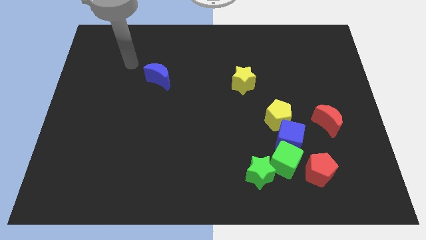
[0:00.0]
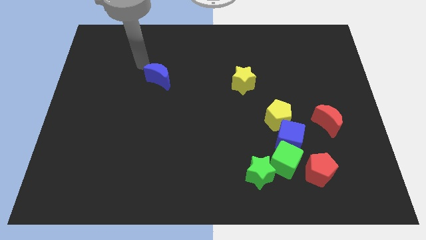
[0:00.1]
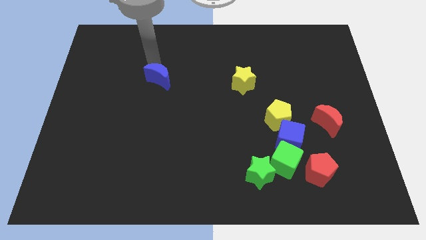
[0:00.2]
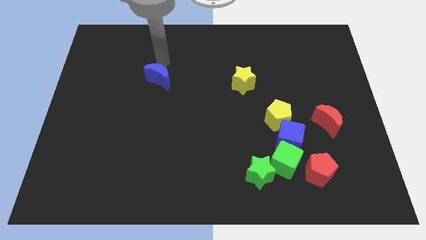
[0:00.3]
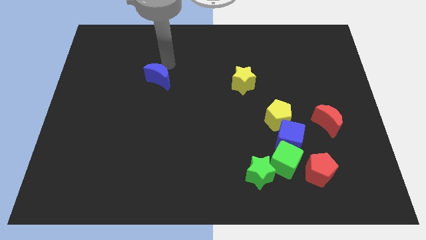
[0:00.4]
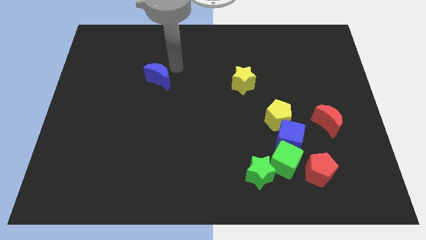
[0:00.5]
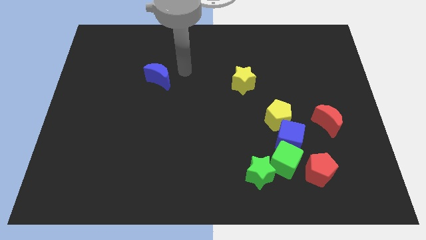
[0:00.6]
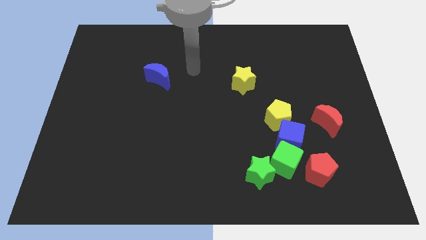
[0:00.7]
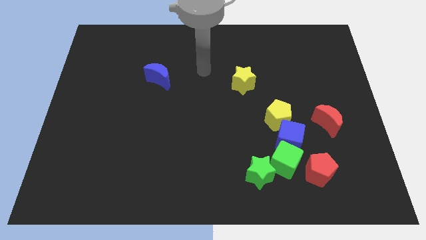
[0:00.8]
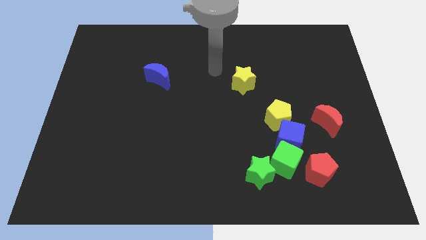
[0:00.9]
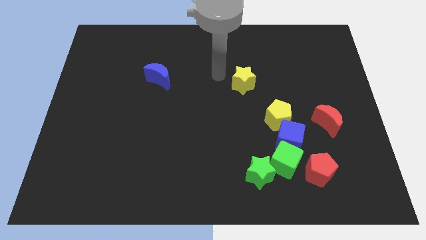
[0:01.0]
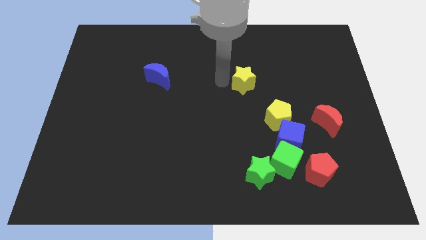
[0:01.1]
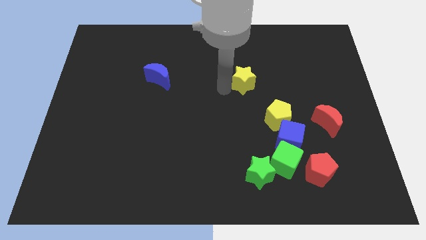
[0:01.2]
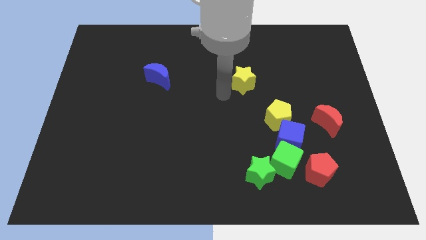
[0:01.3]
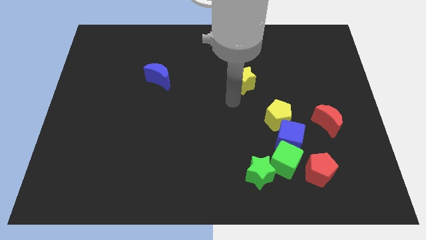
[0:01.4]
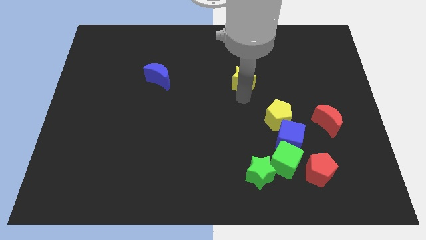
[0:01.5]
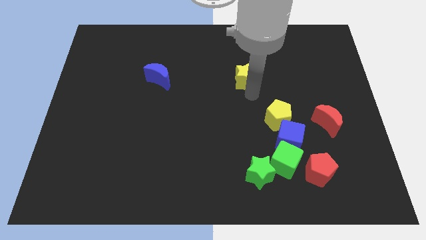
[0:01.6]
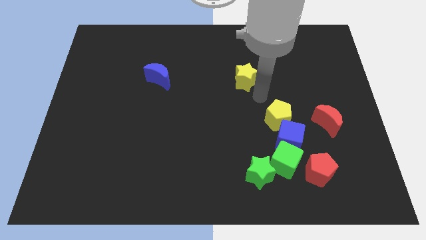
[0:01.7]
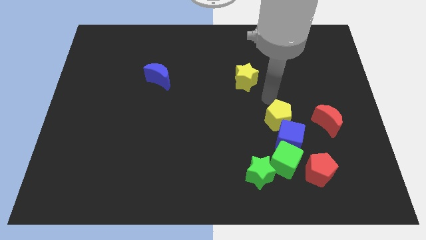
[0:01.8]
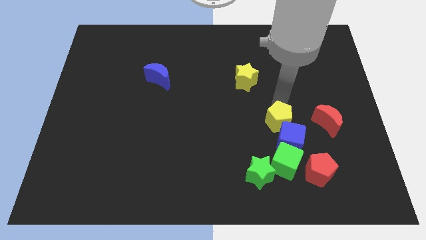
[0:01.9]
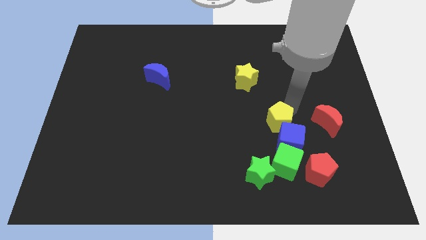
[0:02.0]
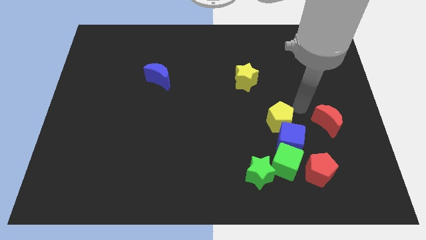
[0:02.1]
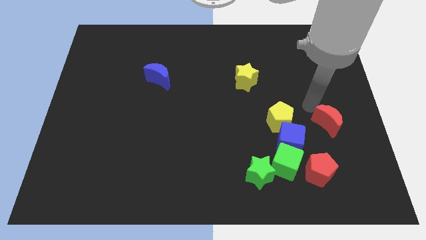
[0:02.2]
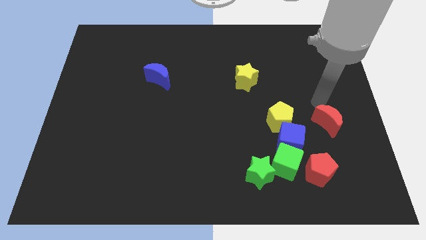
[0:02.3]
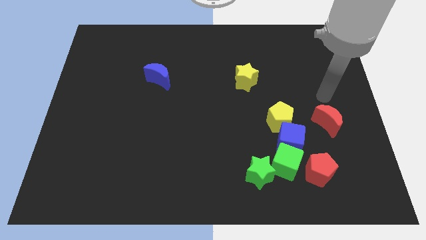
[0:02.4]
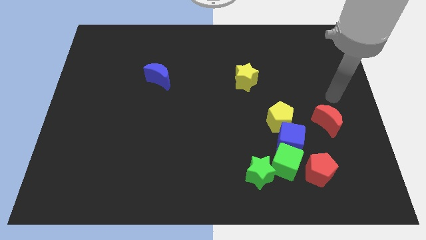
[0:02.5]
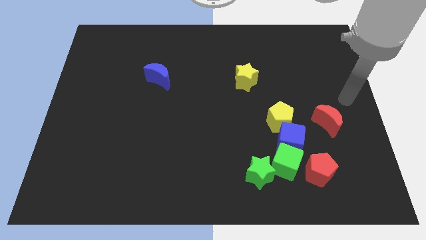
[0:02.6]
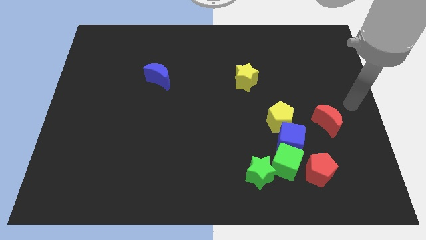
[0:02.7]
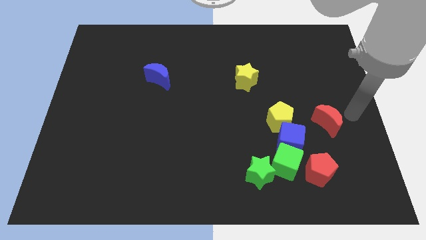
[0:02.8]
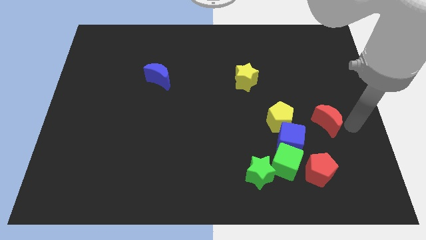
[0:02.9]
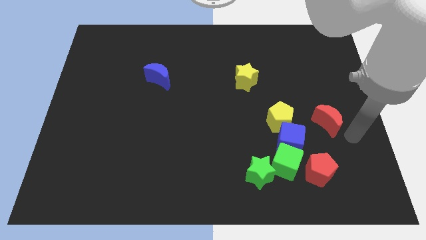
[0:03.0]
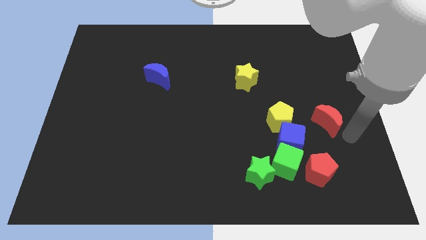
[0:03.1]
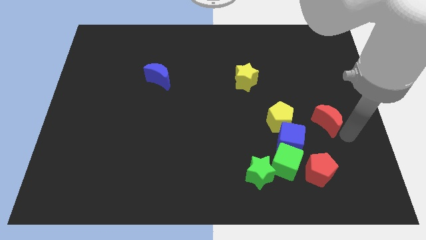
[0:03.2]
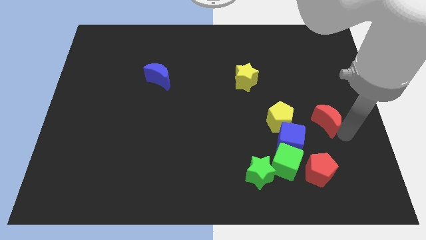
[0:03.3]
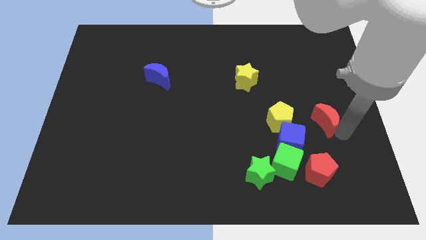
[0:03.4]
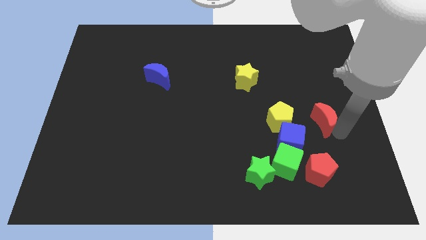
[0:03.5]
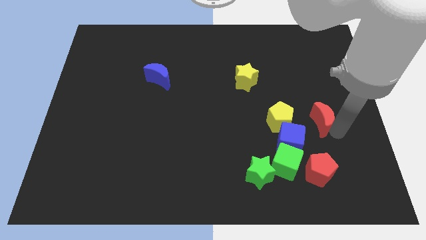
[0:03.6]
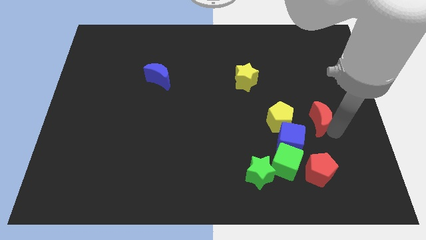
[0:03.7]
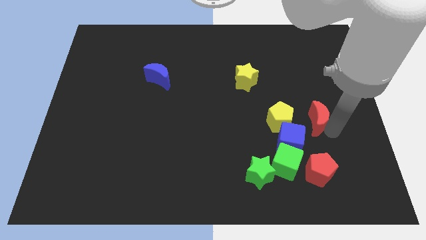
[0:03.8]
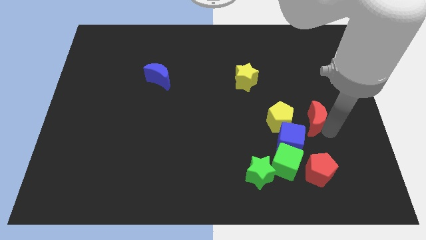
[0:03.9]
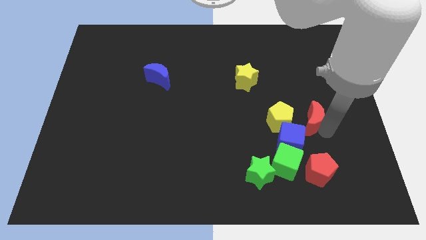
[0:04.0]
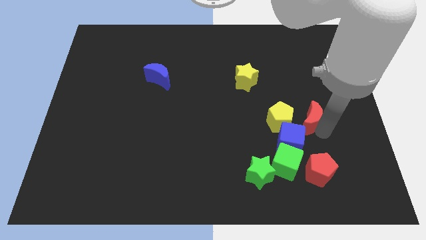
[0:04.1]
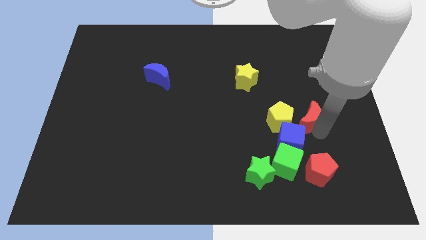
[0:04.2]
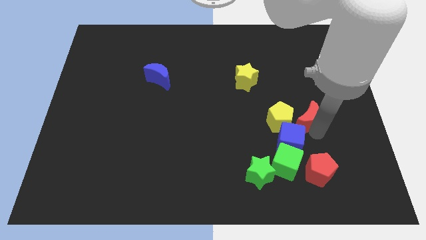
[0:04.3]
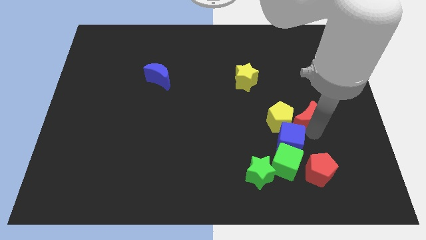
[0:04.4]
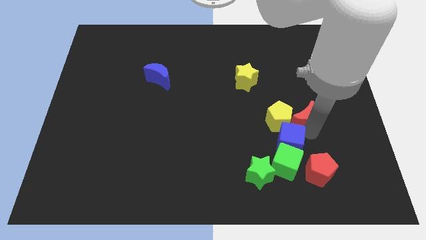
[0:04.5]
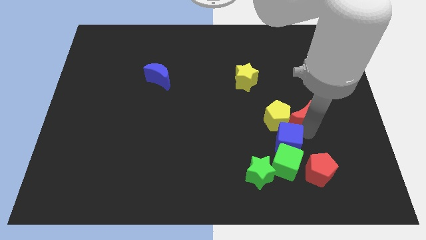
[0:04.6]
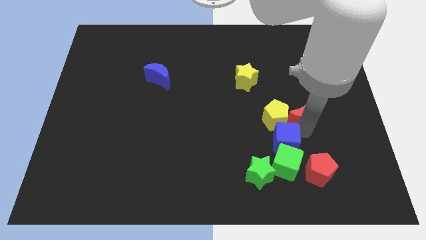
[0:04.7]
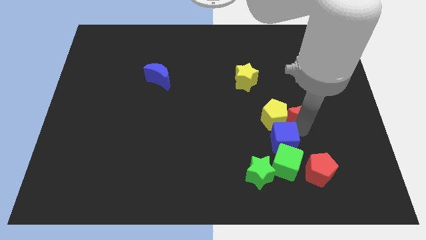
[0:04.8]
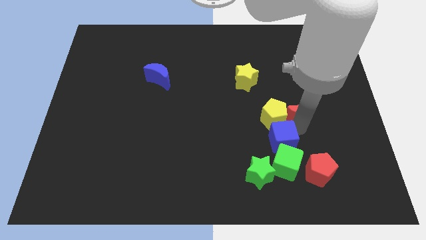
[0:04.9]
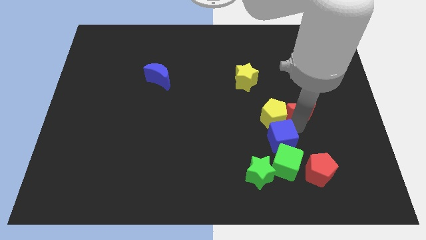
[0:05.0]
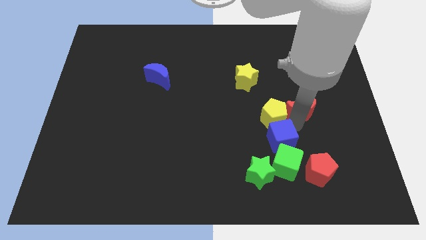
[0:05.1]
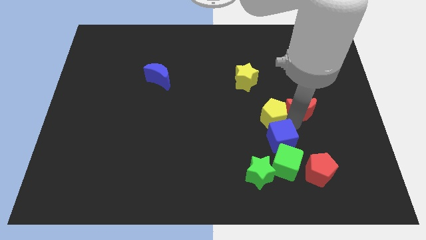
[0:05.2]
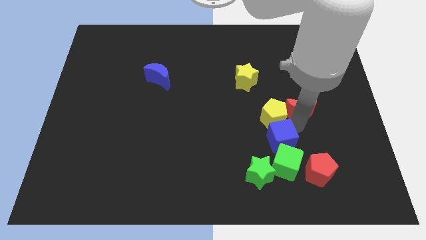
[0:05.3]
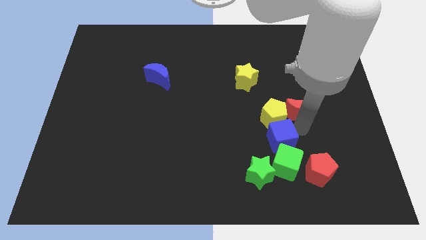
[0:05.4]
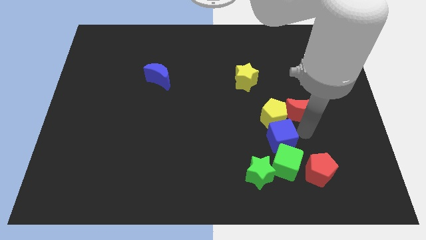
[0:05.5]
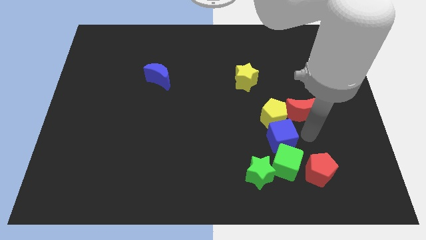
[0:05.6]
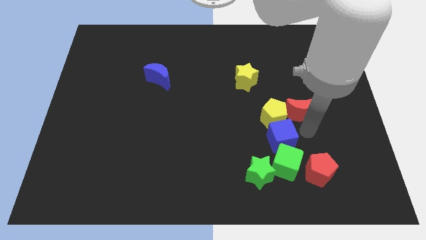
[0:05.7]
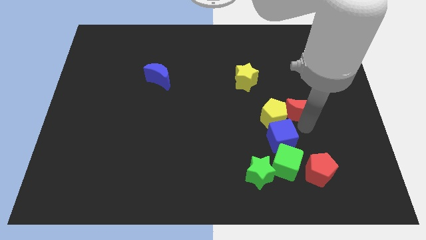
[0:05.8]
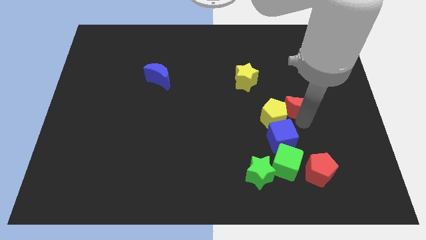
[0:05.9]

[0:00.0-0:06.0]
slightly push the red moon upwards and then left

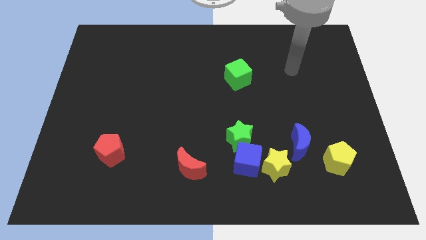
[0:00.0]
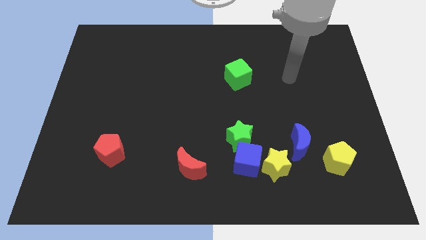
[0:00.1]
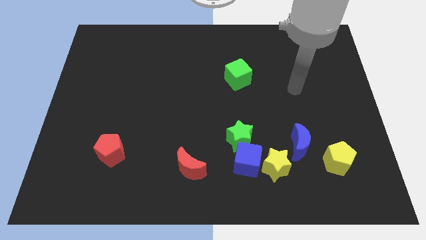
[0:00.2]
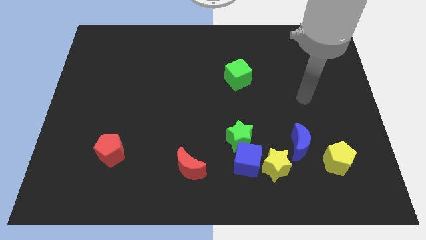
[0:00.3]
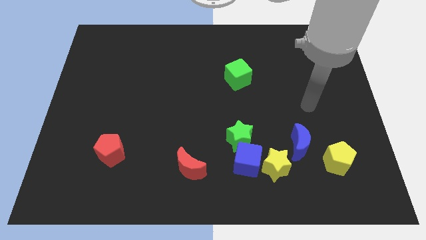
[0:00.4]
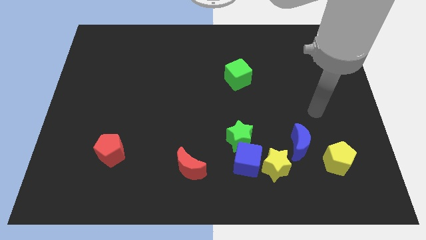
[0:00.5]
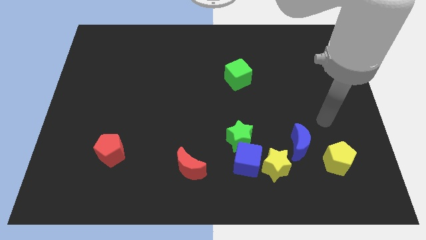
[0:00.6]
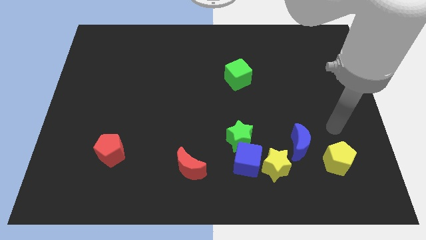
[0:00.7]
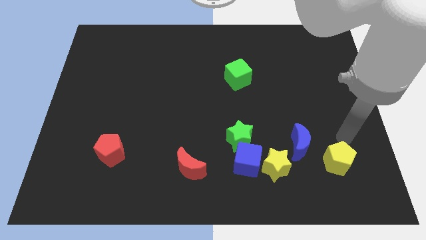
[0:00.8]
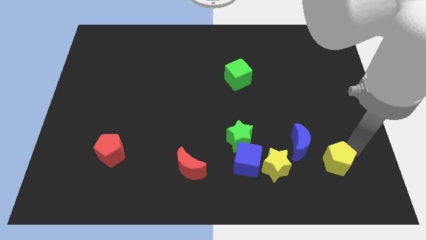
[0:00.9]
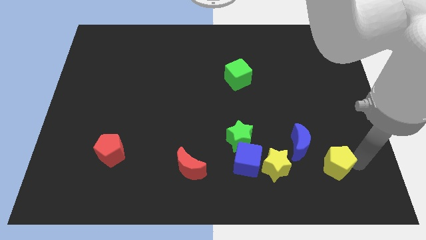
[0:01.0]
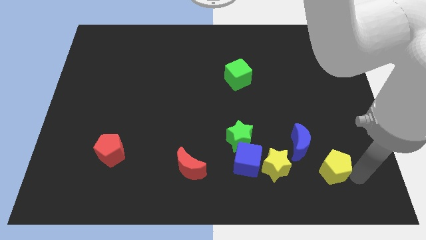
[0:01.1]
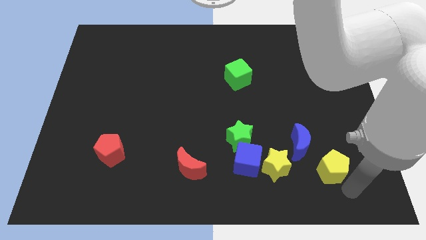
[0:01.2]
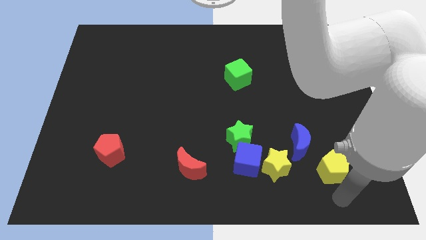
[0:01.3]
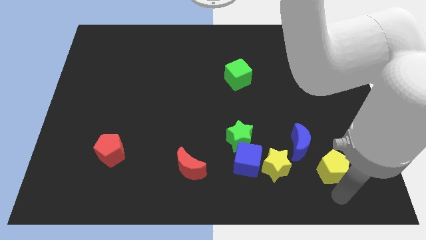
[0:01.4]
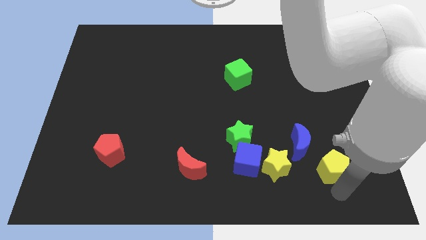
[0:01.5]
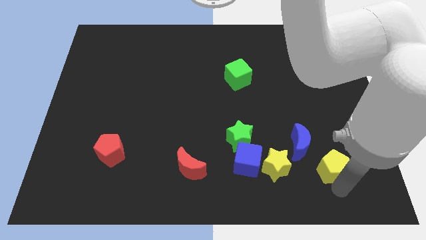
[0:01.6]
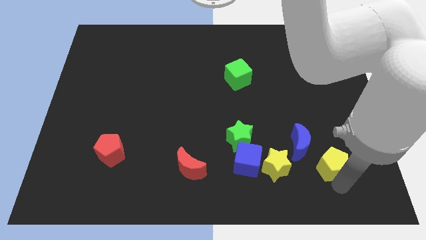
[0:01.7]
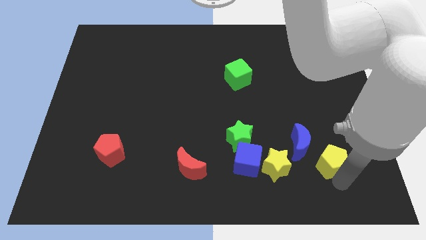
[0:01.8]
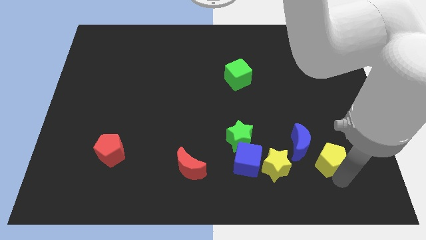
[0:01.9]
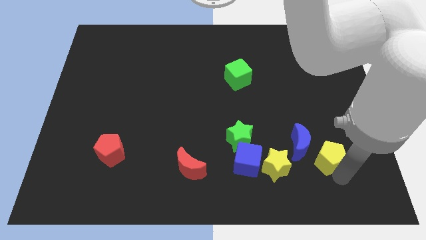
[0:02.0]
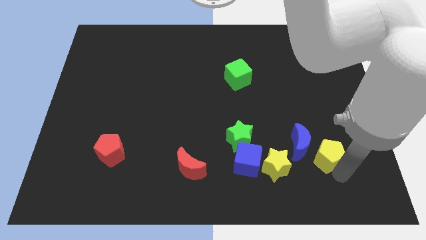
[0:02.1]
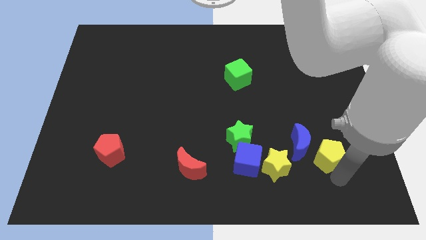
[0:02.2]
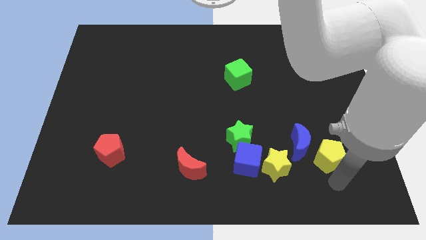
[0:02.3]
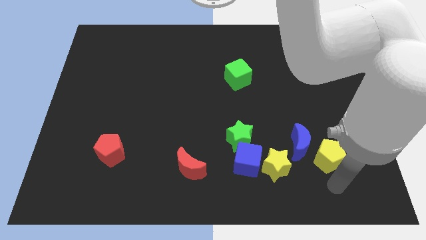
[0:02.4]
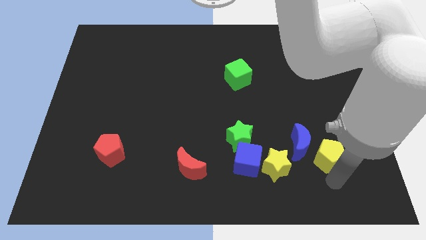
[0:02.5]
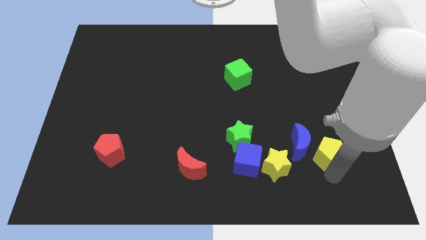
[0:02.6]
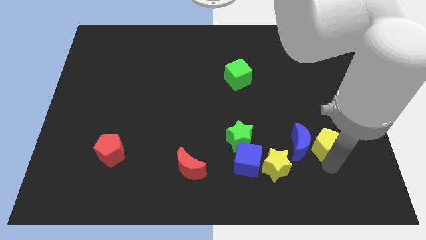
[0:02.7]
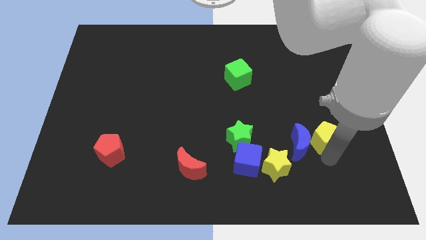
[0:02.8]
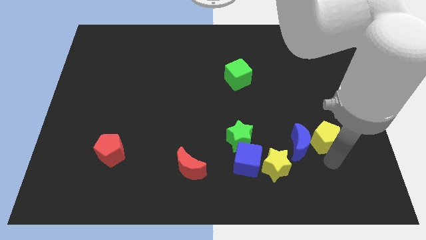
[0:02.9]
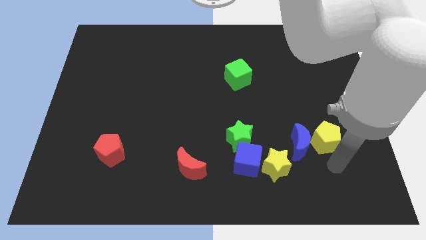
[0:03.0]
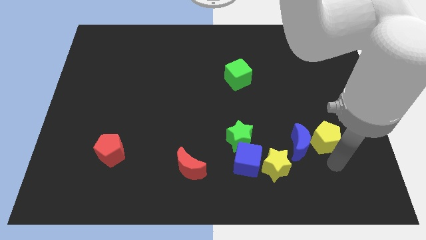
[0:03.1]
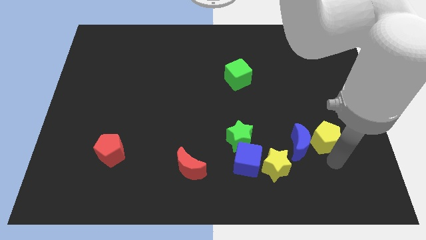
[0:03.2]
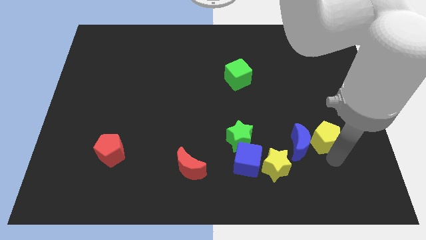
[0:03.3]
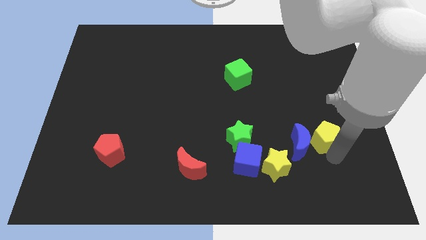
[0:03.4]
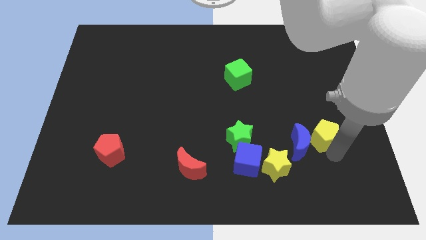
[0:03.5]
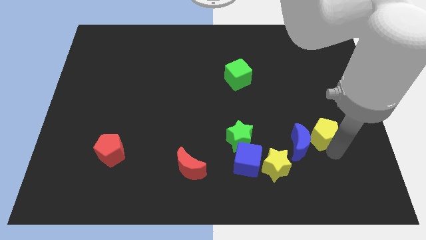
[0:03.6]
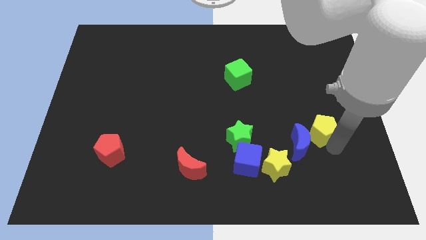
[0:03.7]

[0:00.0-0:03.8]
push the yellow pentagon a bit up
